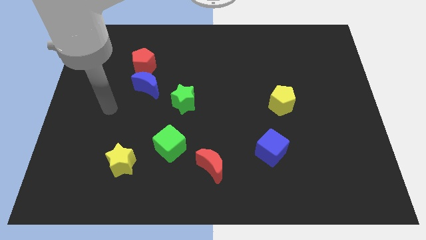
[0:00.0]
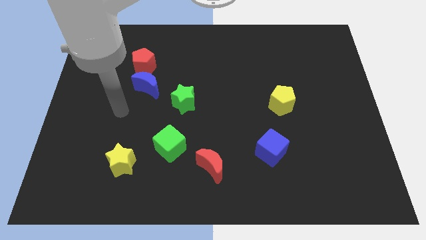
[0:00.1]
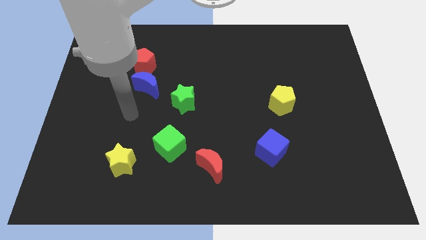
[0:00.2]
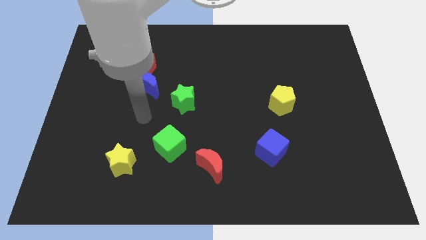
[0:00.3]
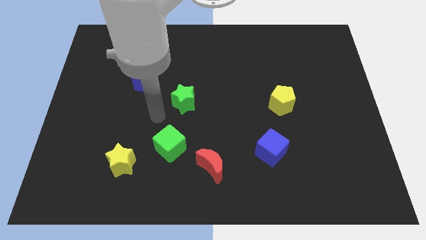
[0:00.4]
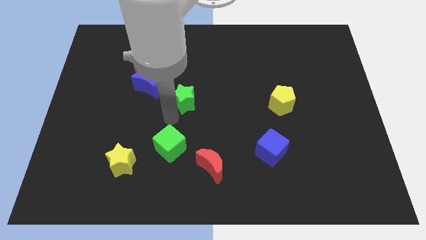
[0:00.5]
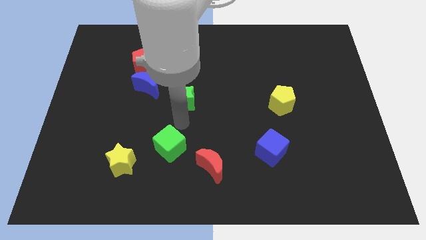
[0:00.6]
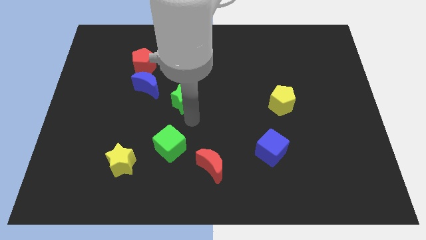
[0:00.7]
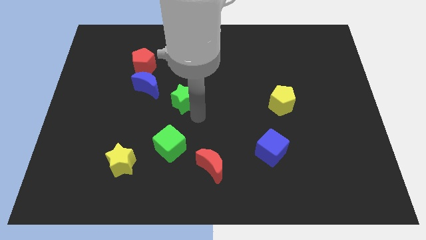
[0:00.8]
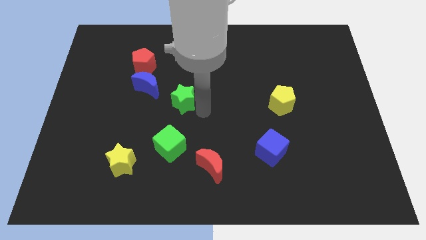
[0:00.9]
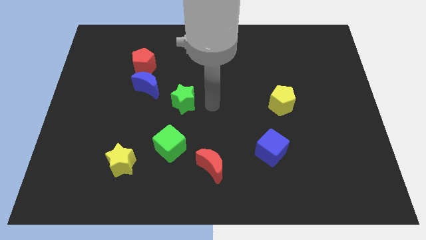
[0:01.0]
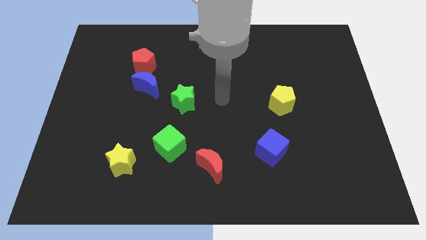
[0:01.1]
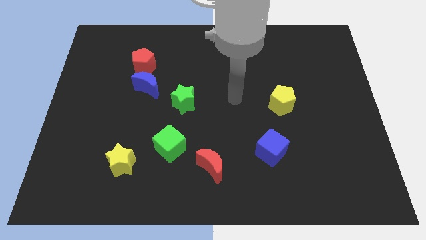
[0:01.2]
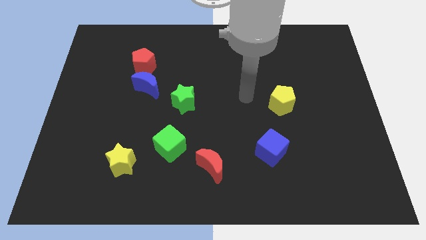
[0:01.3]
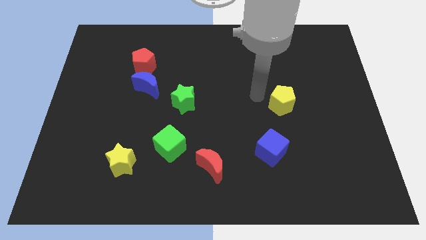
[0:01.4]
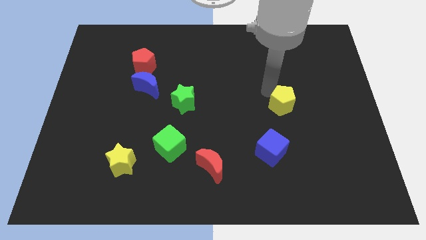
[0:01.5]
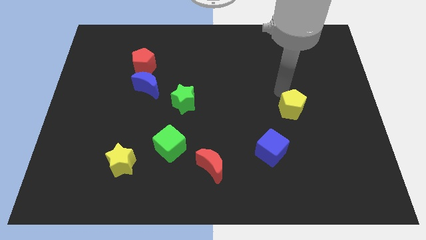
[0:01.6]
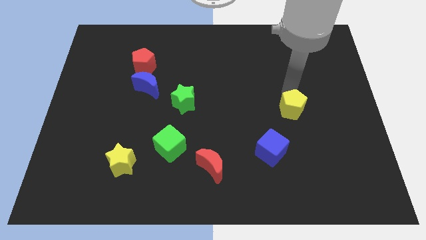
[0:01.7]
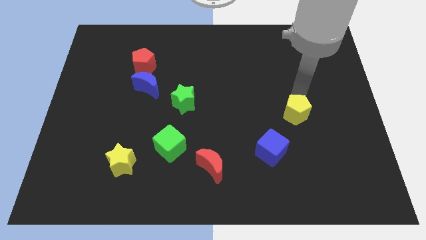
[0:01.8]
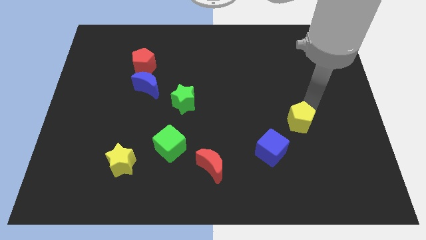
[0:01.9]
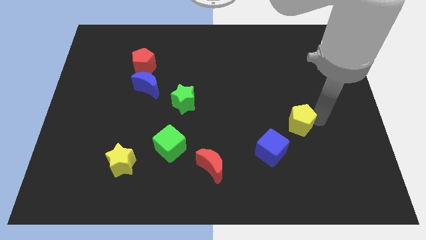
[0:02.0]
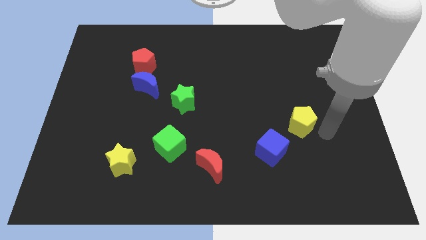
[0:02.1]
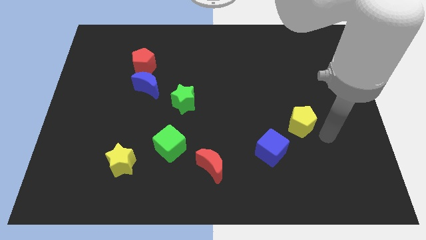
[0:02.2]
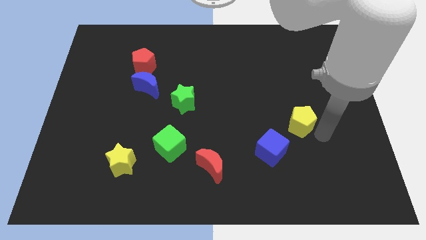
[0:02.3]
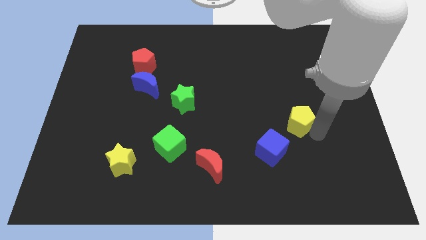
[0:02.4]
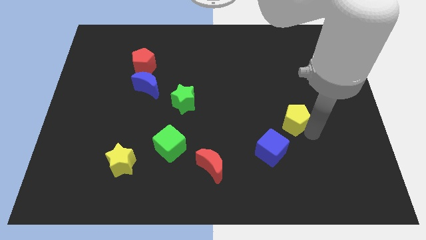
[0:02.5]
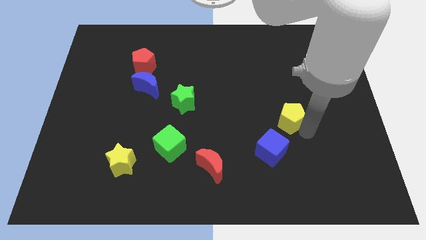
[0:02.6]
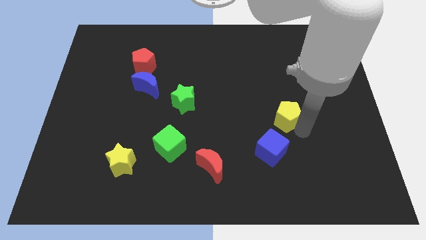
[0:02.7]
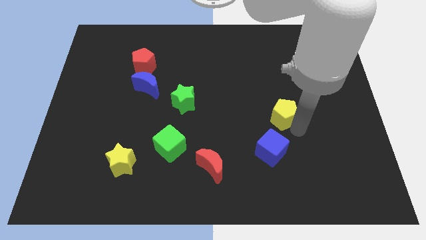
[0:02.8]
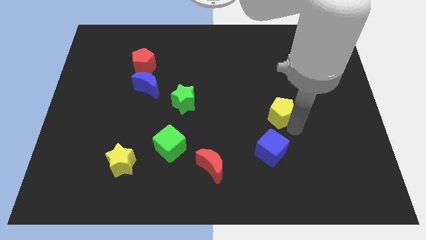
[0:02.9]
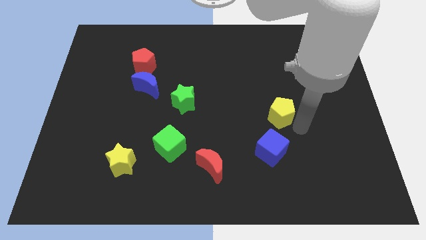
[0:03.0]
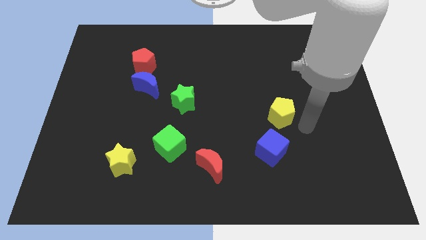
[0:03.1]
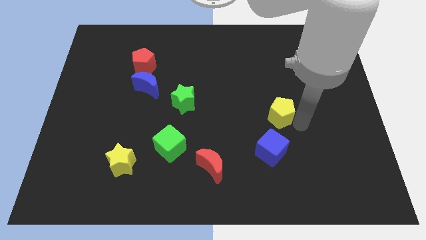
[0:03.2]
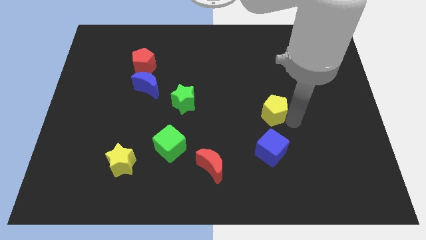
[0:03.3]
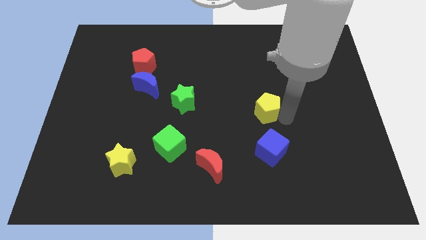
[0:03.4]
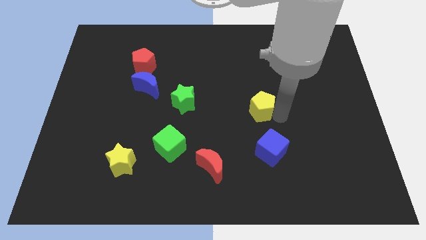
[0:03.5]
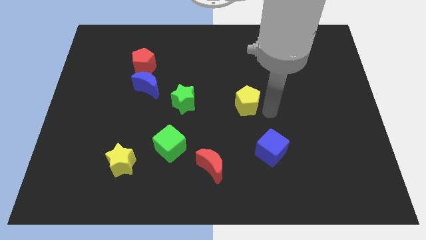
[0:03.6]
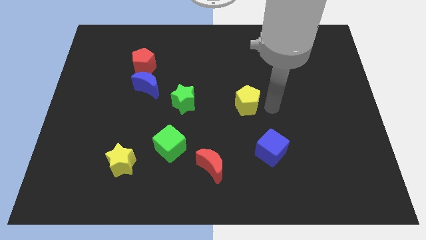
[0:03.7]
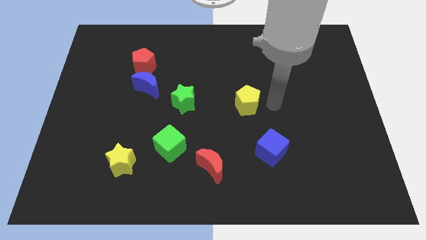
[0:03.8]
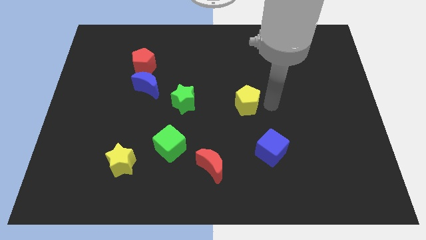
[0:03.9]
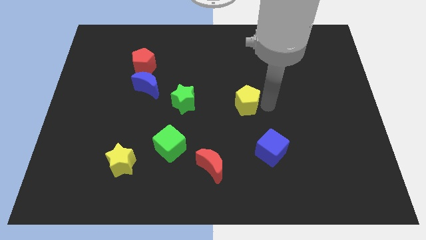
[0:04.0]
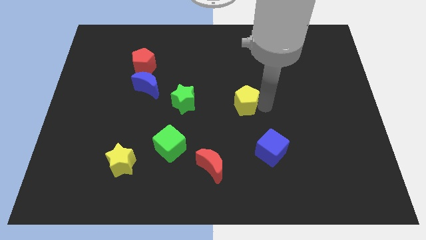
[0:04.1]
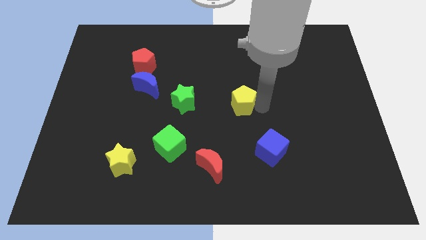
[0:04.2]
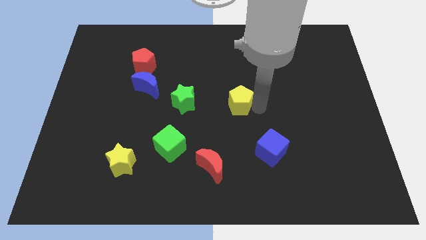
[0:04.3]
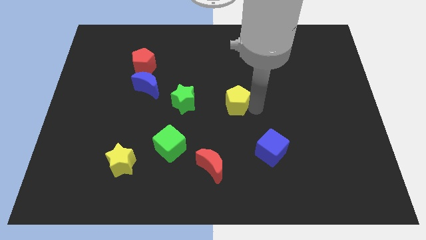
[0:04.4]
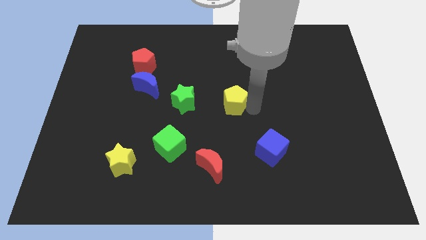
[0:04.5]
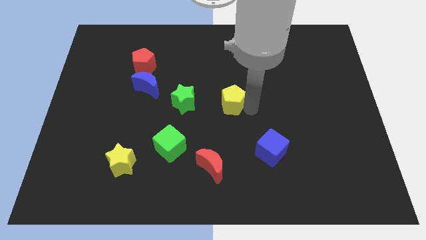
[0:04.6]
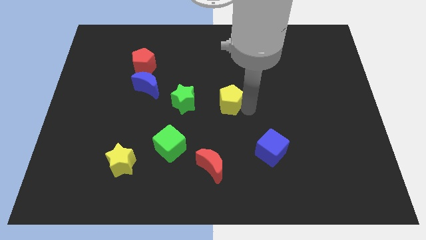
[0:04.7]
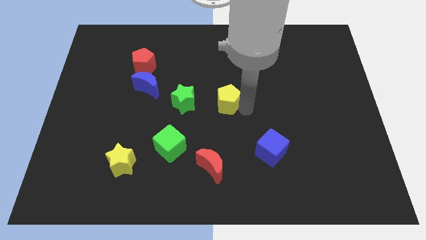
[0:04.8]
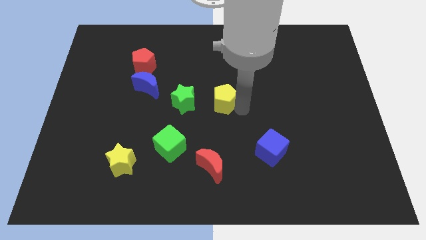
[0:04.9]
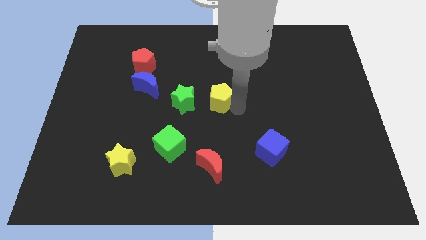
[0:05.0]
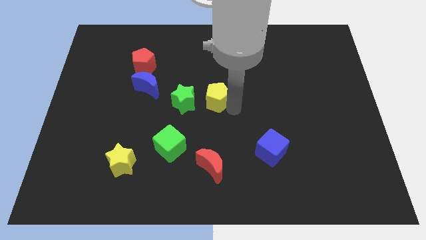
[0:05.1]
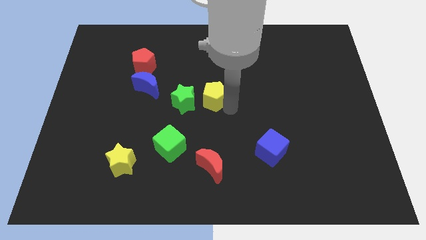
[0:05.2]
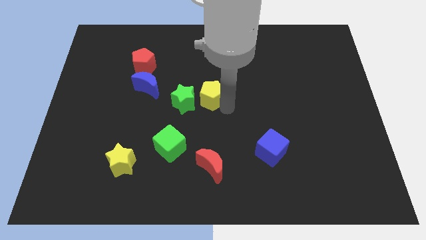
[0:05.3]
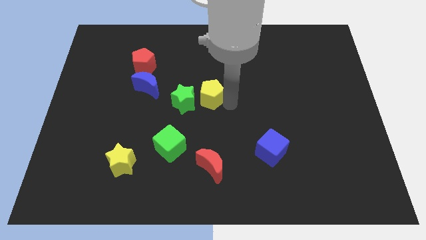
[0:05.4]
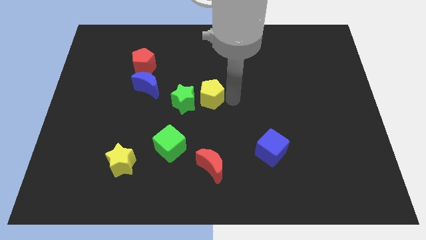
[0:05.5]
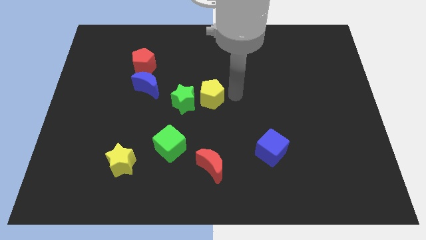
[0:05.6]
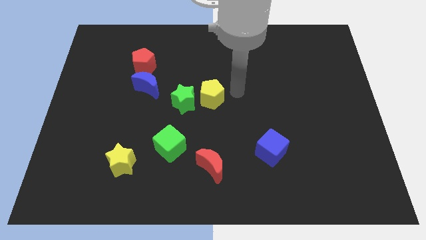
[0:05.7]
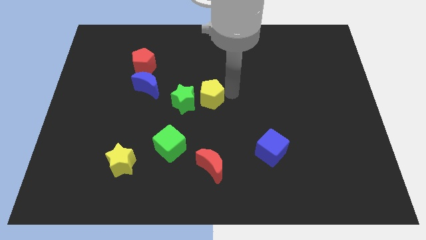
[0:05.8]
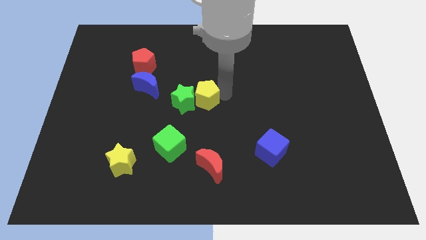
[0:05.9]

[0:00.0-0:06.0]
slide the yellow pentagon close to the green star

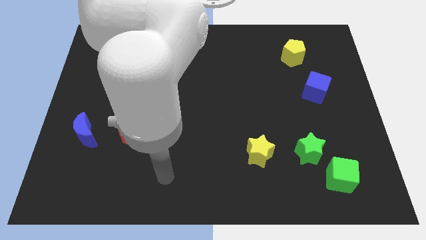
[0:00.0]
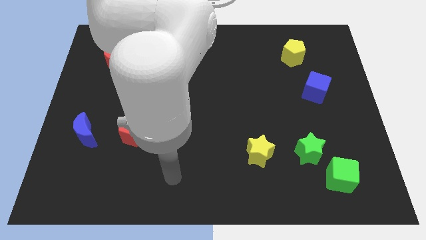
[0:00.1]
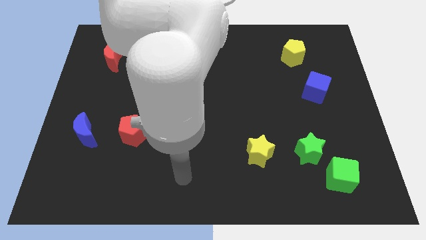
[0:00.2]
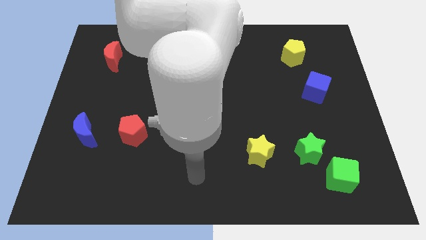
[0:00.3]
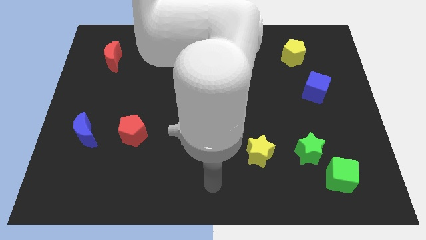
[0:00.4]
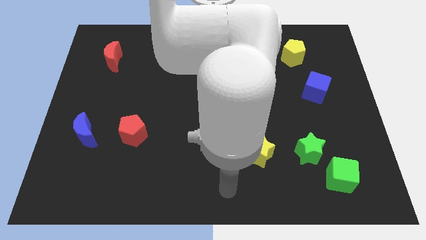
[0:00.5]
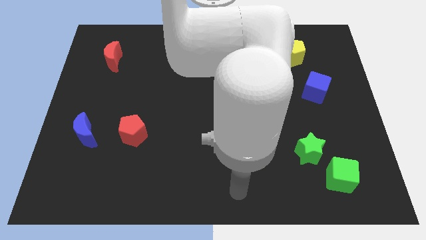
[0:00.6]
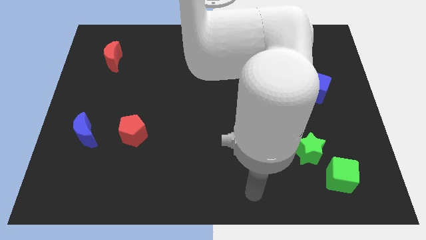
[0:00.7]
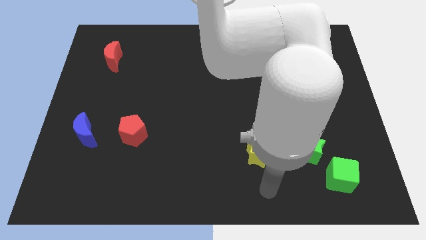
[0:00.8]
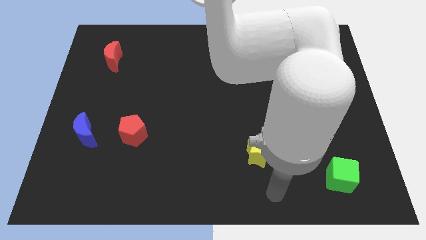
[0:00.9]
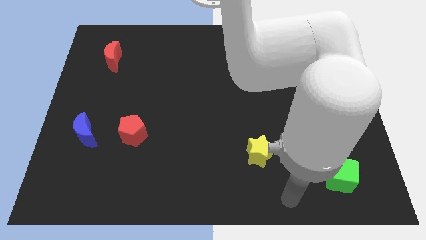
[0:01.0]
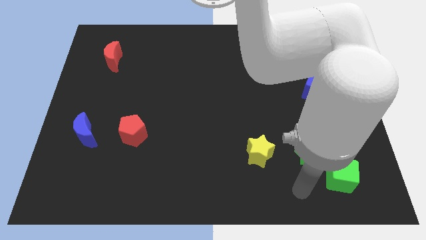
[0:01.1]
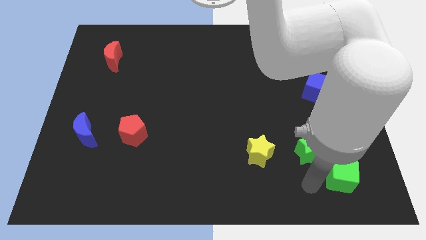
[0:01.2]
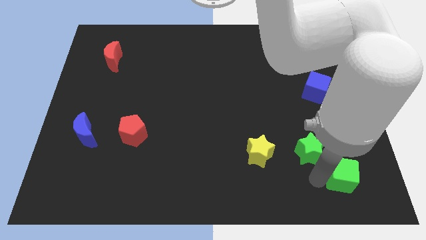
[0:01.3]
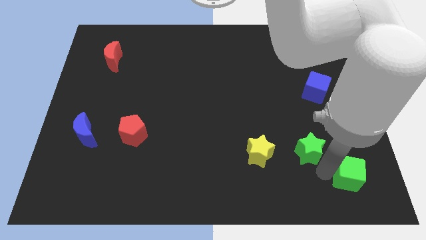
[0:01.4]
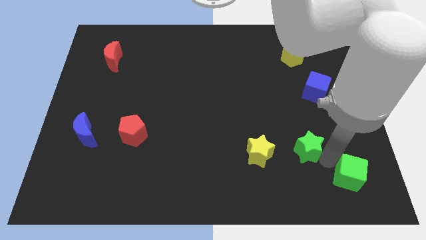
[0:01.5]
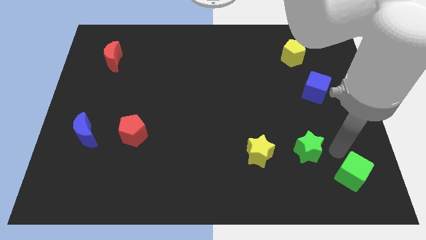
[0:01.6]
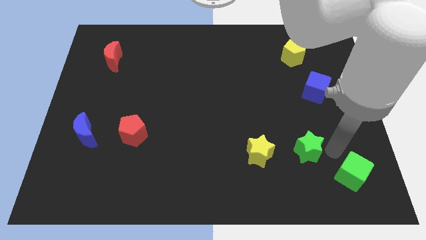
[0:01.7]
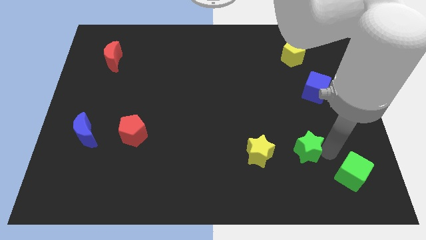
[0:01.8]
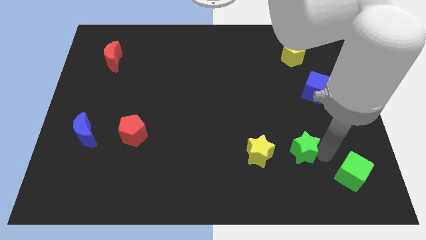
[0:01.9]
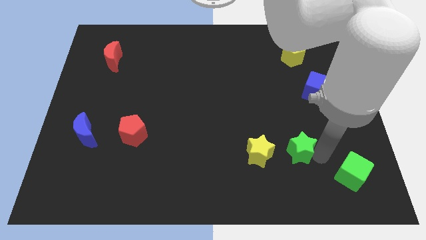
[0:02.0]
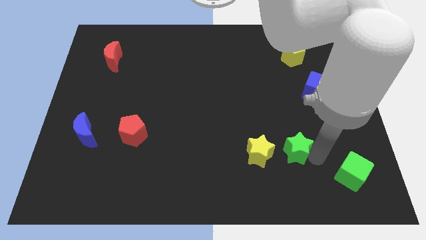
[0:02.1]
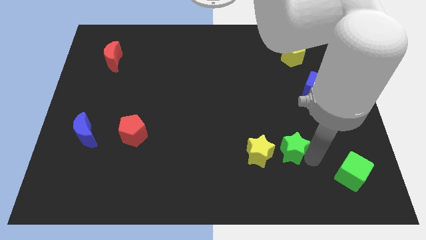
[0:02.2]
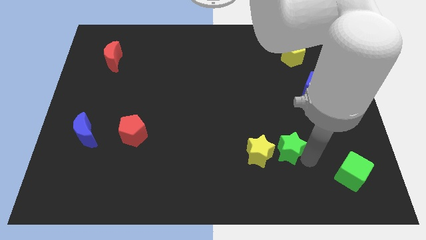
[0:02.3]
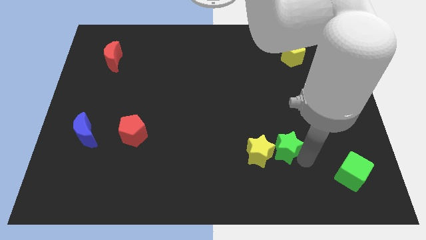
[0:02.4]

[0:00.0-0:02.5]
slide the green star close to the yellow star
